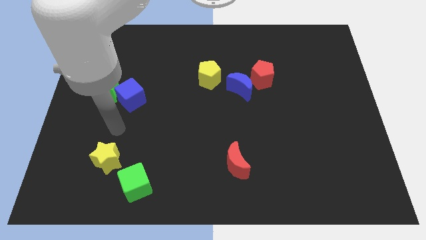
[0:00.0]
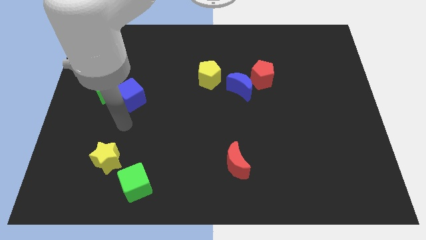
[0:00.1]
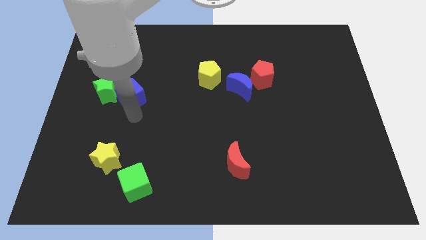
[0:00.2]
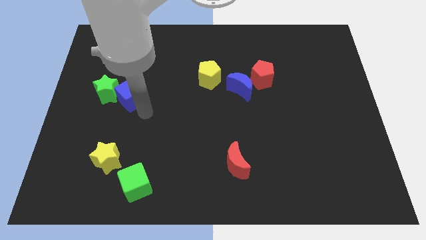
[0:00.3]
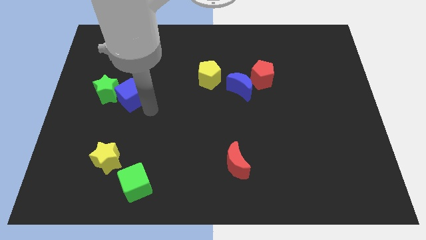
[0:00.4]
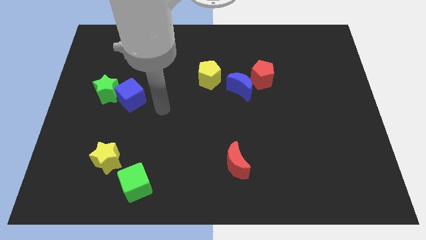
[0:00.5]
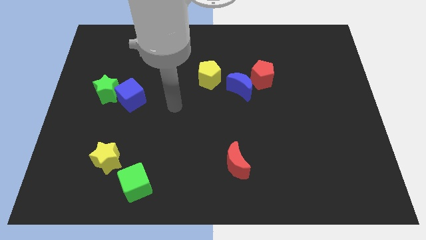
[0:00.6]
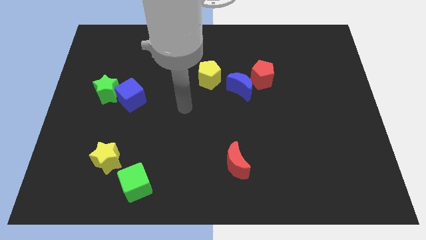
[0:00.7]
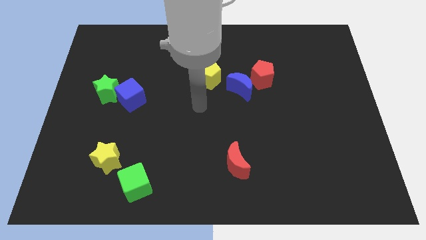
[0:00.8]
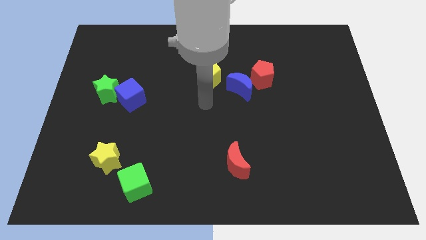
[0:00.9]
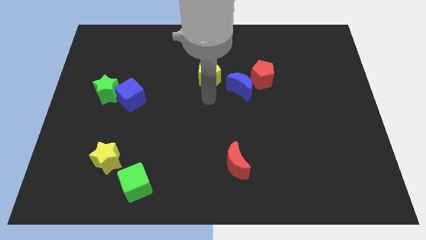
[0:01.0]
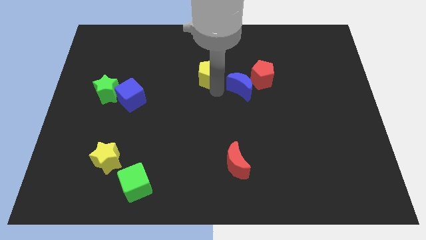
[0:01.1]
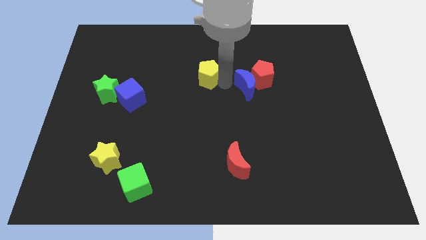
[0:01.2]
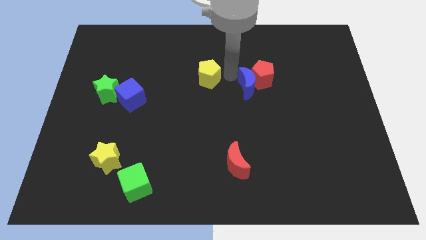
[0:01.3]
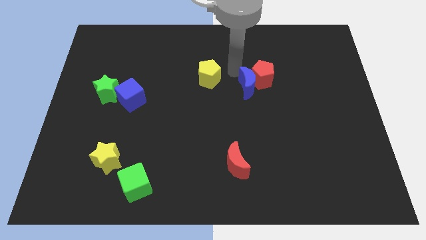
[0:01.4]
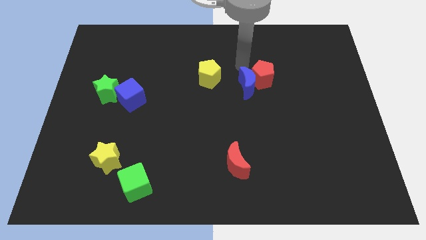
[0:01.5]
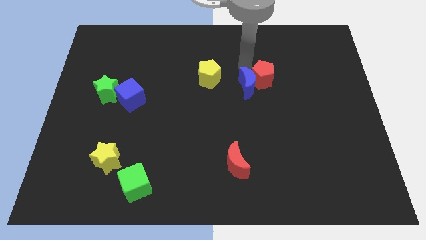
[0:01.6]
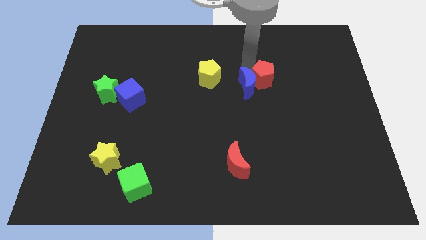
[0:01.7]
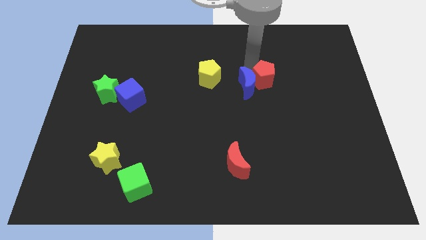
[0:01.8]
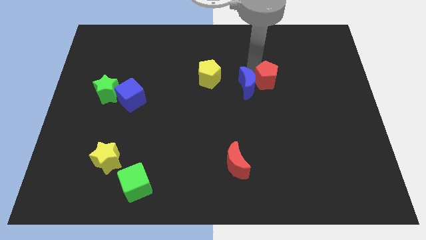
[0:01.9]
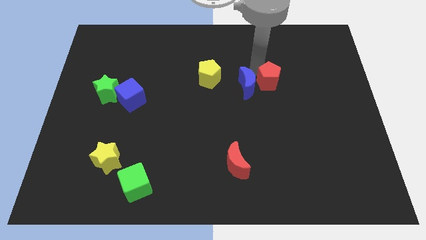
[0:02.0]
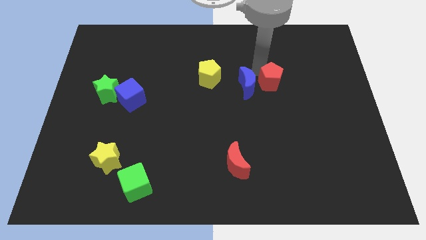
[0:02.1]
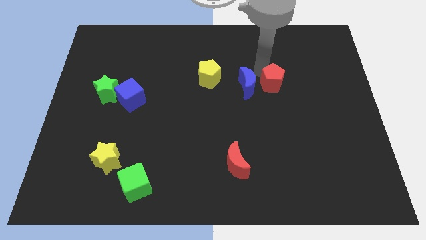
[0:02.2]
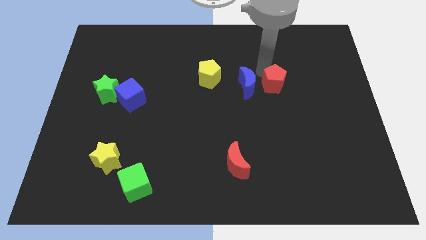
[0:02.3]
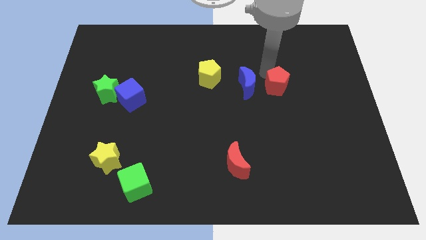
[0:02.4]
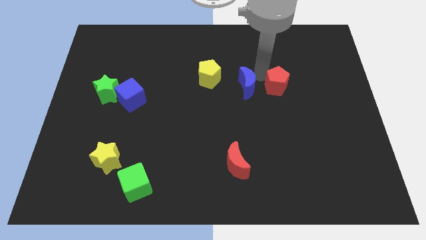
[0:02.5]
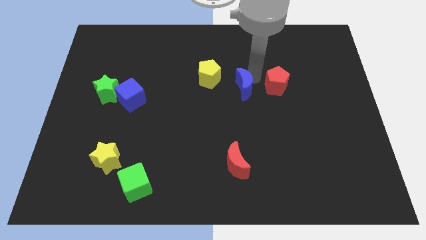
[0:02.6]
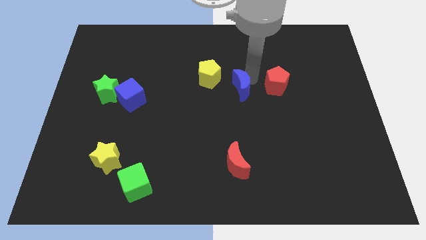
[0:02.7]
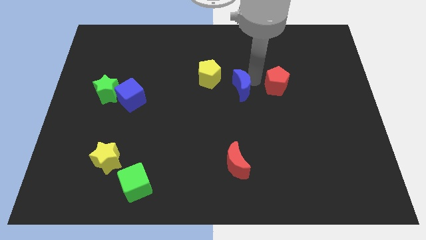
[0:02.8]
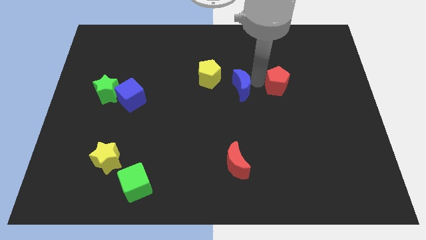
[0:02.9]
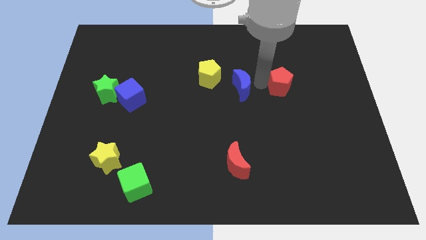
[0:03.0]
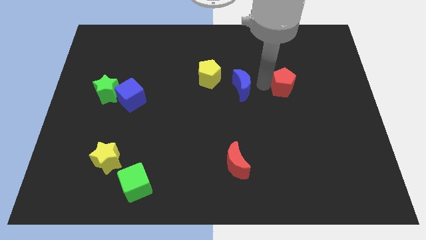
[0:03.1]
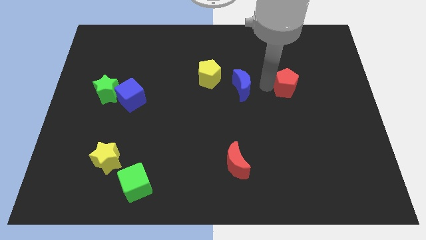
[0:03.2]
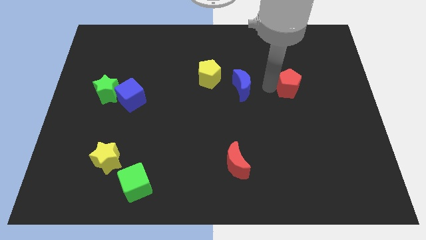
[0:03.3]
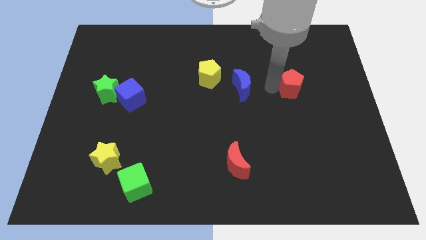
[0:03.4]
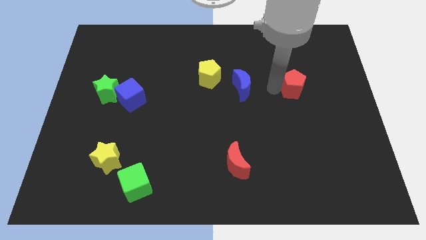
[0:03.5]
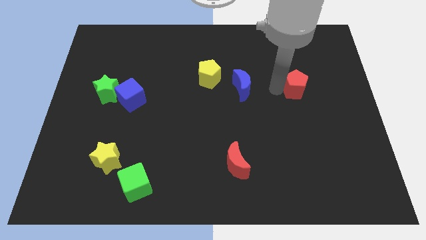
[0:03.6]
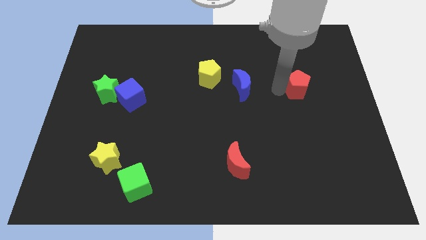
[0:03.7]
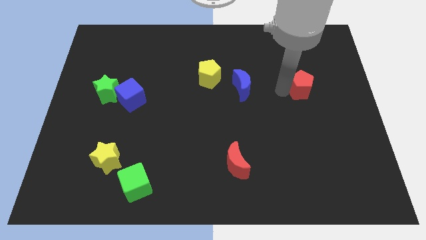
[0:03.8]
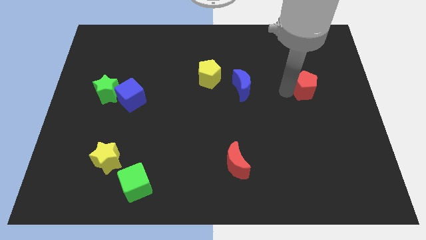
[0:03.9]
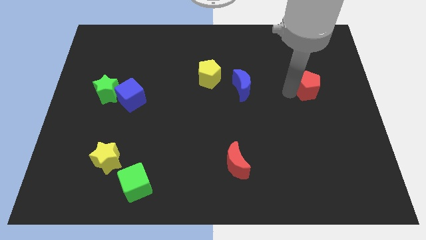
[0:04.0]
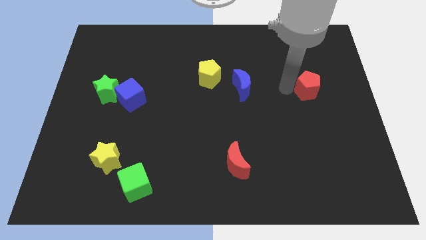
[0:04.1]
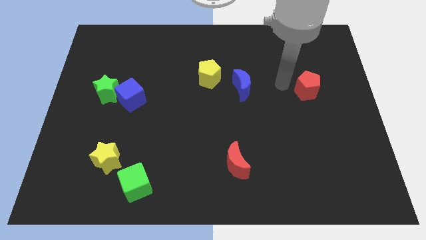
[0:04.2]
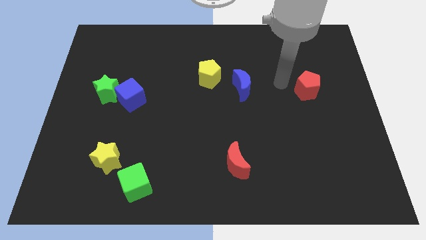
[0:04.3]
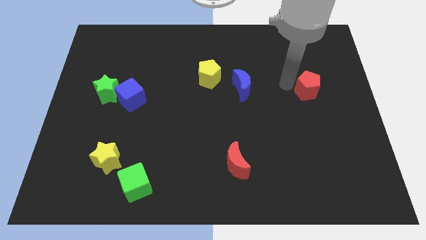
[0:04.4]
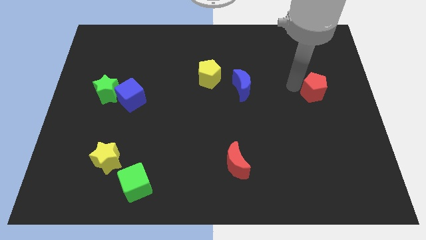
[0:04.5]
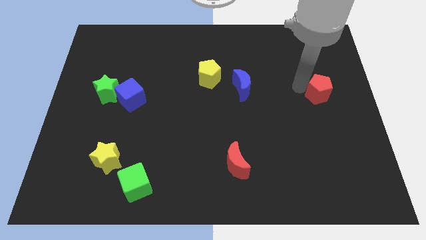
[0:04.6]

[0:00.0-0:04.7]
put the red pentagon to the right side

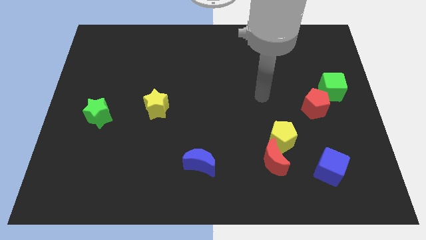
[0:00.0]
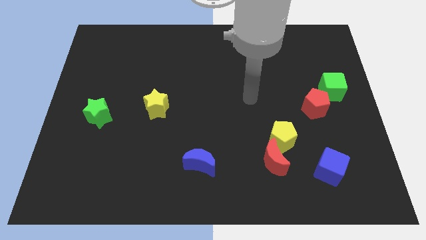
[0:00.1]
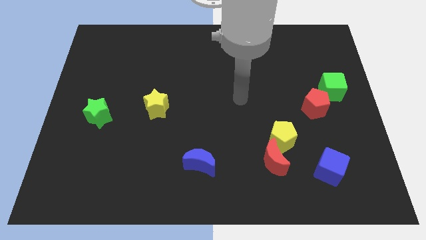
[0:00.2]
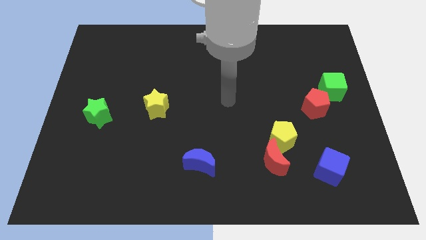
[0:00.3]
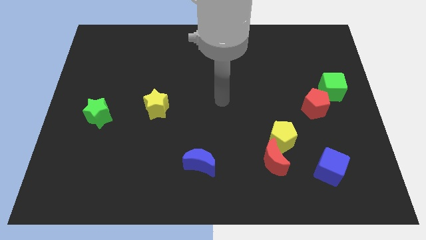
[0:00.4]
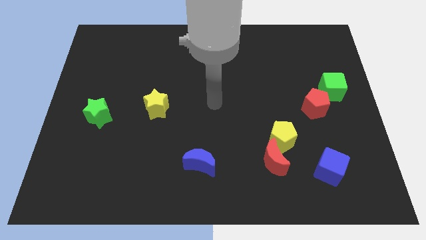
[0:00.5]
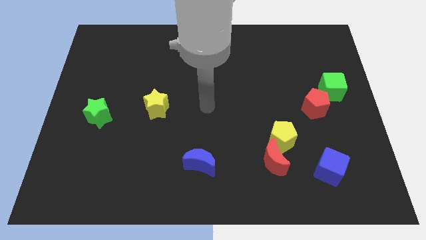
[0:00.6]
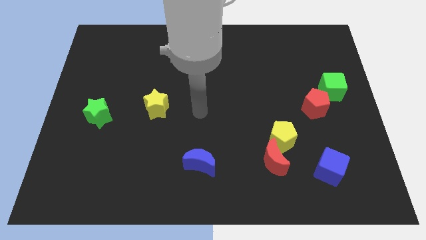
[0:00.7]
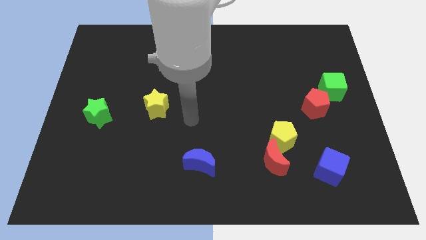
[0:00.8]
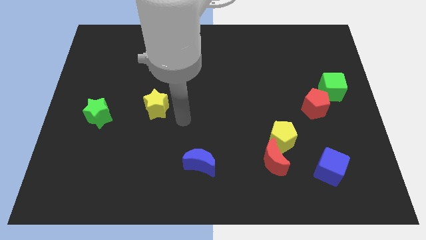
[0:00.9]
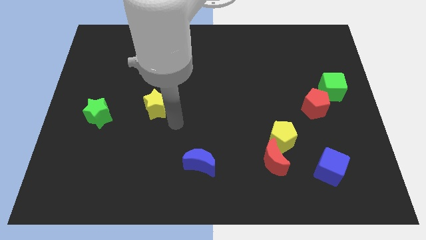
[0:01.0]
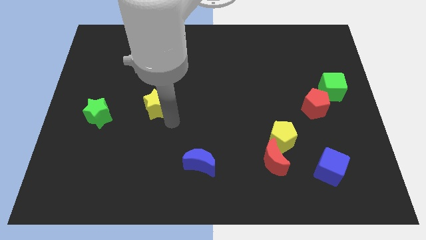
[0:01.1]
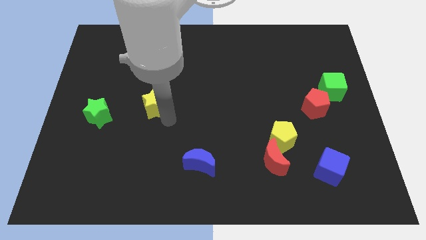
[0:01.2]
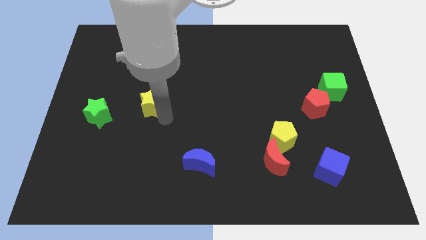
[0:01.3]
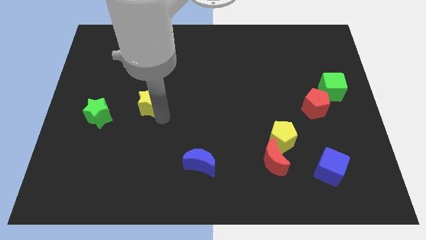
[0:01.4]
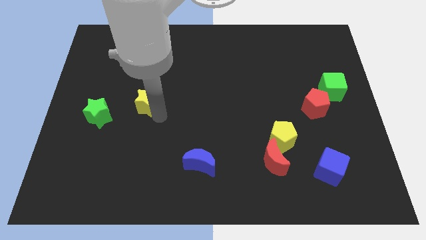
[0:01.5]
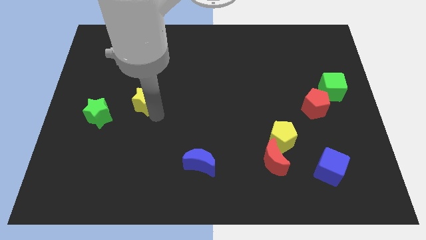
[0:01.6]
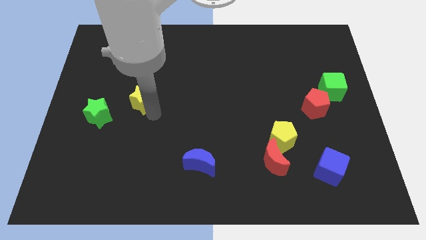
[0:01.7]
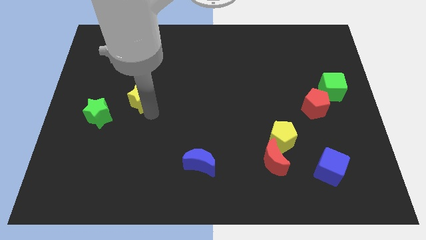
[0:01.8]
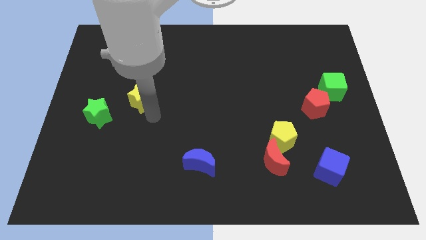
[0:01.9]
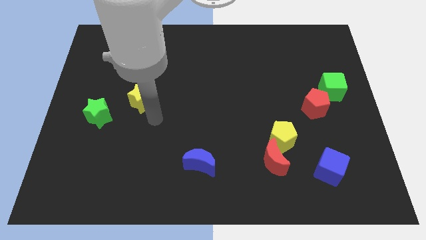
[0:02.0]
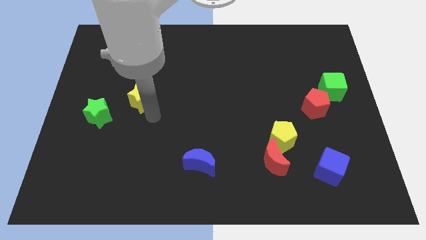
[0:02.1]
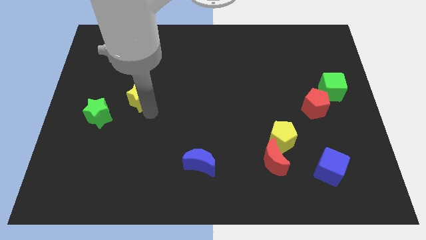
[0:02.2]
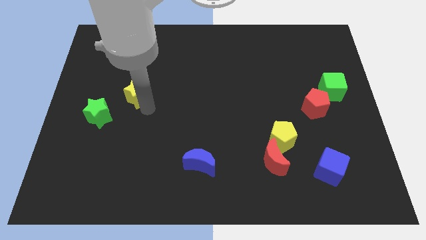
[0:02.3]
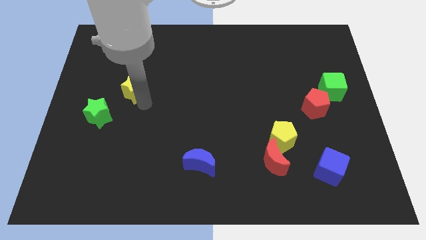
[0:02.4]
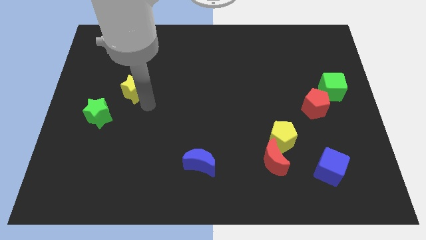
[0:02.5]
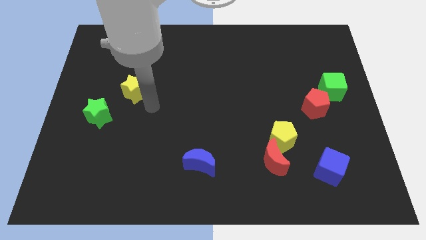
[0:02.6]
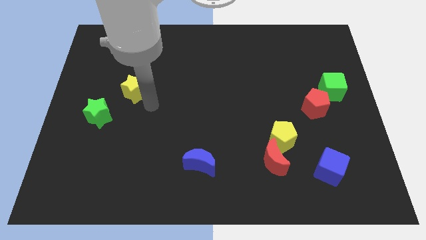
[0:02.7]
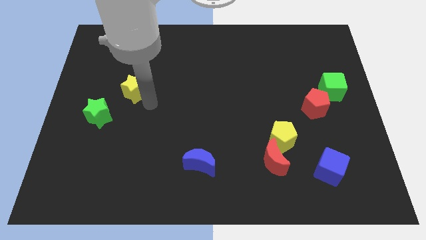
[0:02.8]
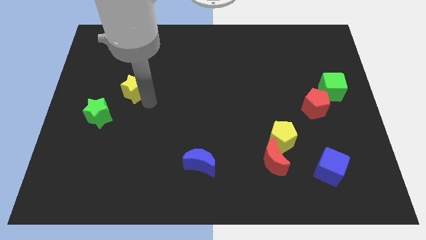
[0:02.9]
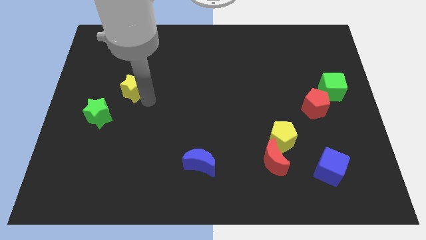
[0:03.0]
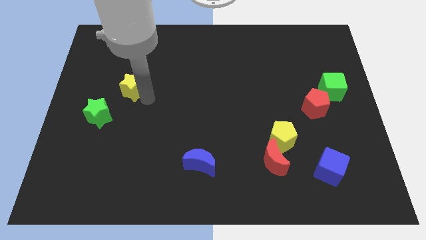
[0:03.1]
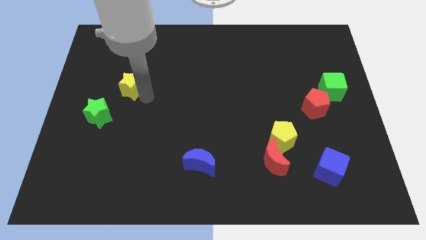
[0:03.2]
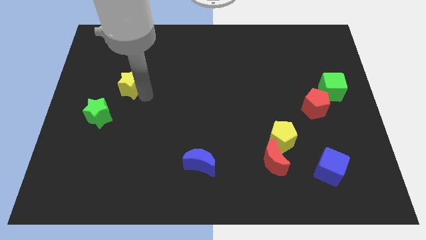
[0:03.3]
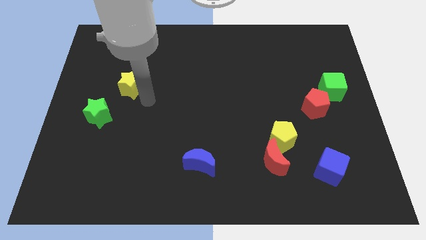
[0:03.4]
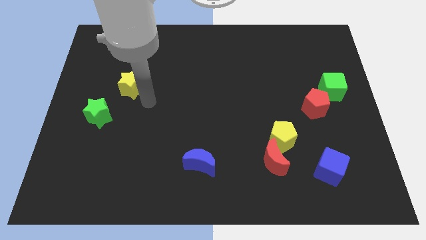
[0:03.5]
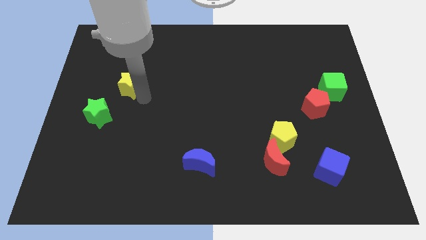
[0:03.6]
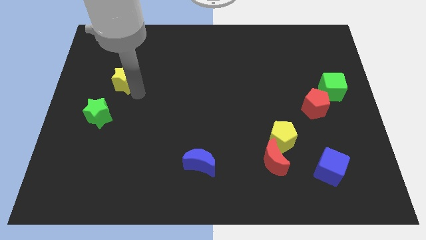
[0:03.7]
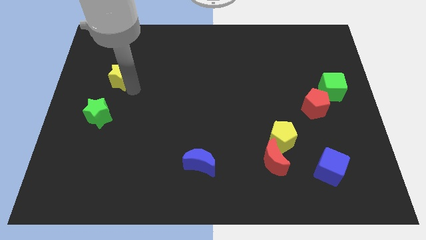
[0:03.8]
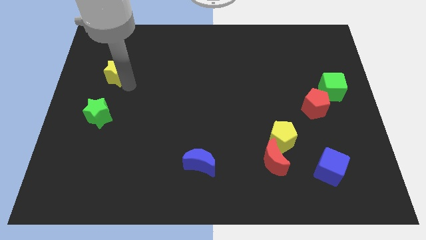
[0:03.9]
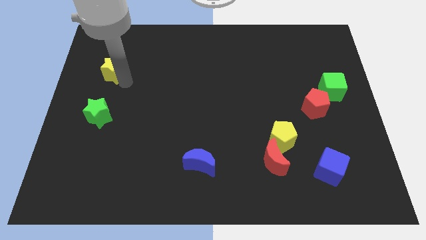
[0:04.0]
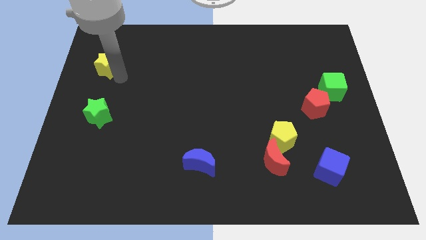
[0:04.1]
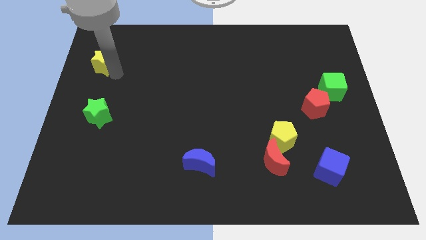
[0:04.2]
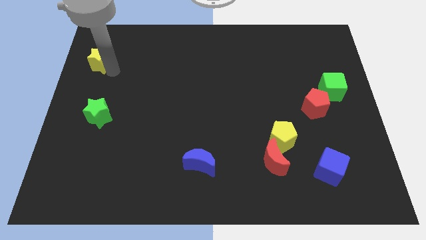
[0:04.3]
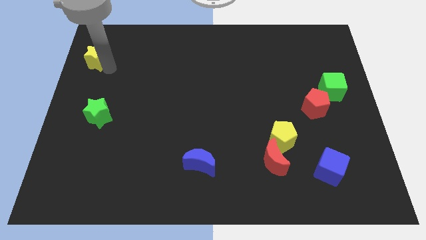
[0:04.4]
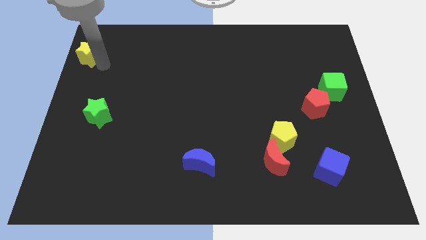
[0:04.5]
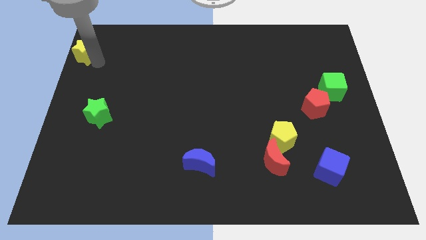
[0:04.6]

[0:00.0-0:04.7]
push the yellow star to the top left corner
